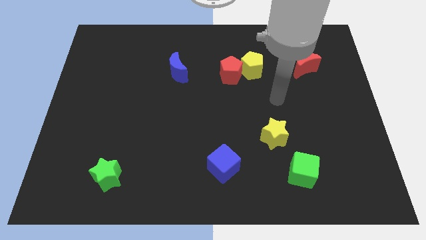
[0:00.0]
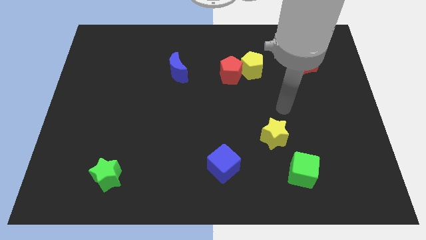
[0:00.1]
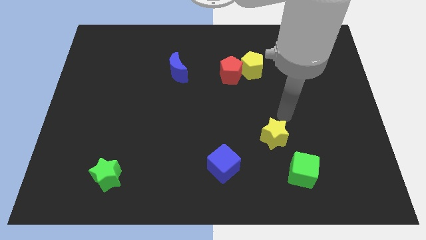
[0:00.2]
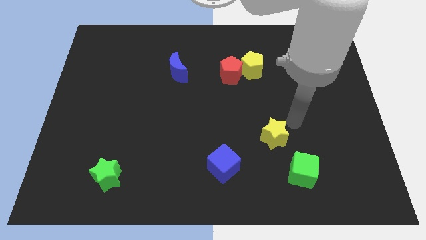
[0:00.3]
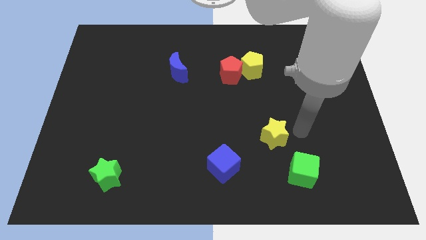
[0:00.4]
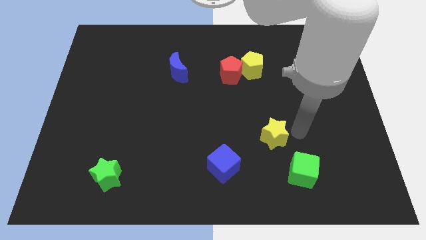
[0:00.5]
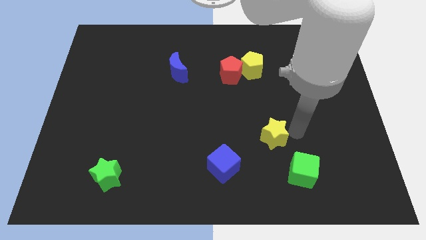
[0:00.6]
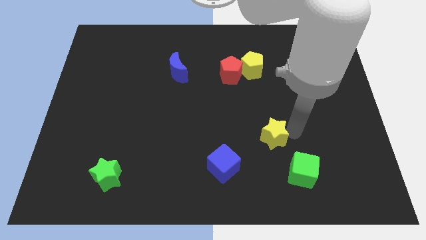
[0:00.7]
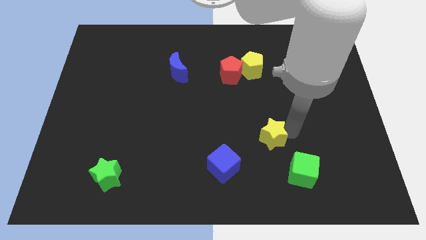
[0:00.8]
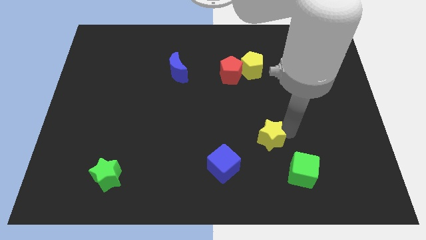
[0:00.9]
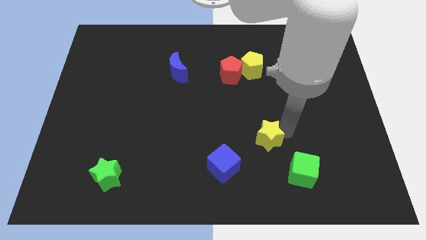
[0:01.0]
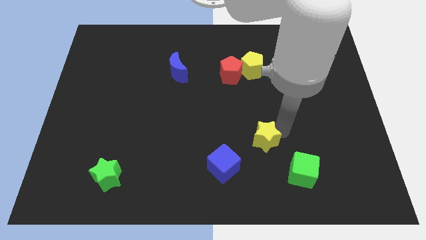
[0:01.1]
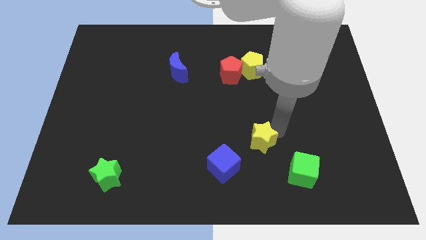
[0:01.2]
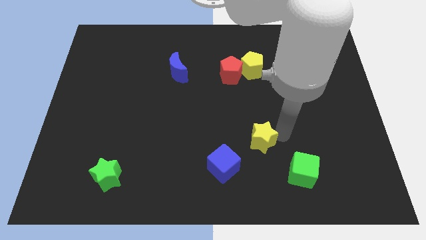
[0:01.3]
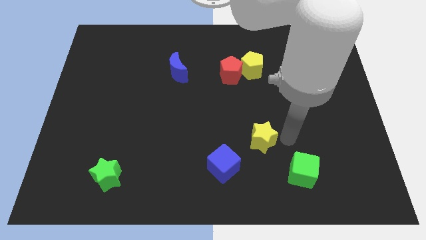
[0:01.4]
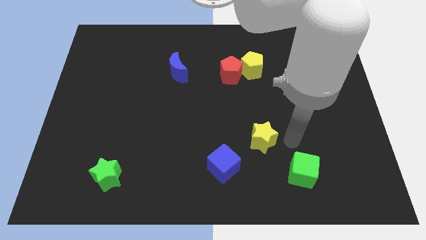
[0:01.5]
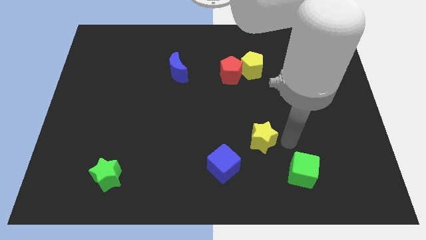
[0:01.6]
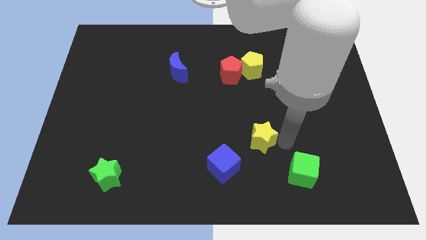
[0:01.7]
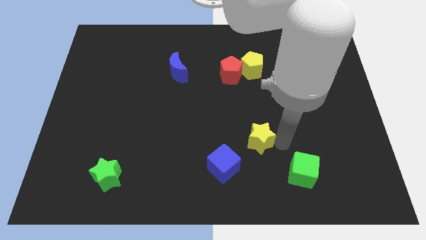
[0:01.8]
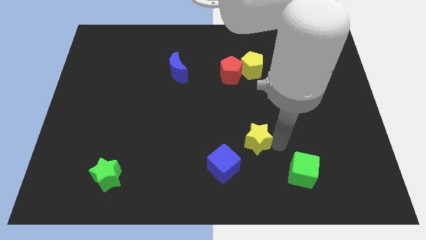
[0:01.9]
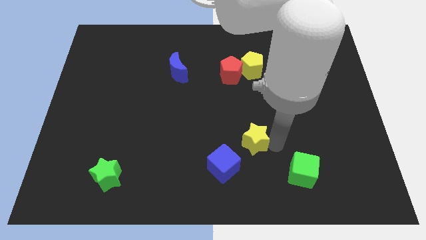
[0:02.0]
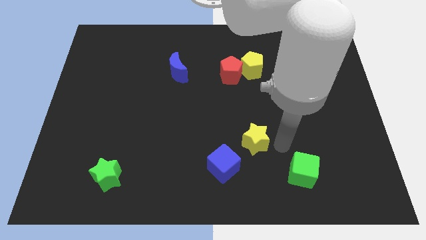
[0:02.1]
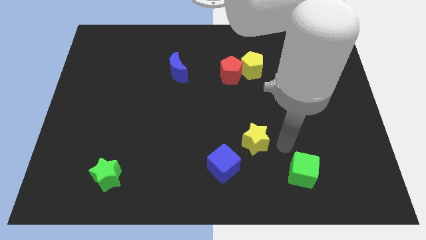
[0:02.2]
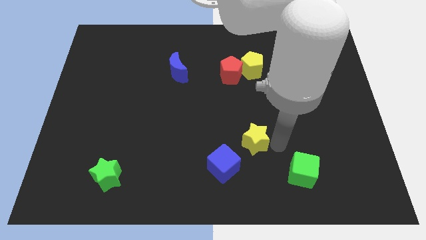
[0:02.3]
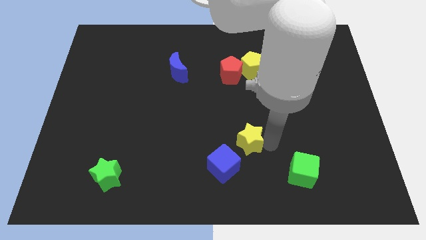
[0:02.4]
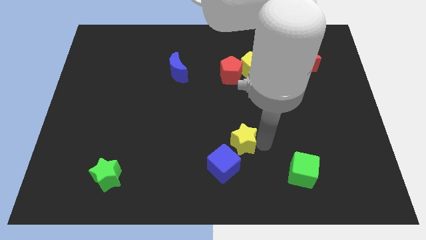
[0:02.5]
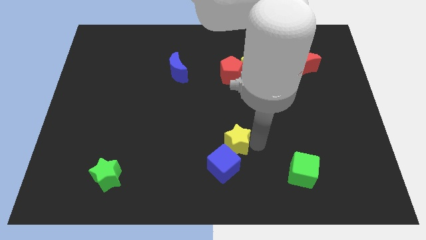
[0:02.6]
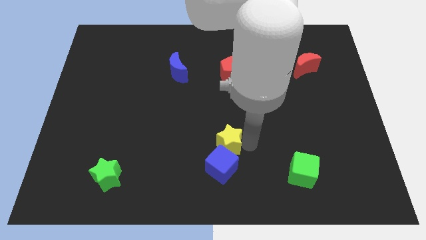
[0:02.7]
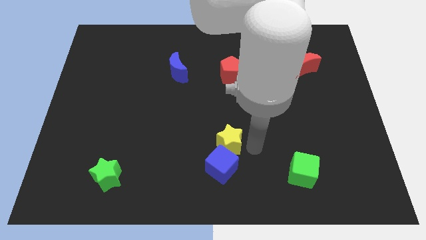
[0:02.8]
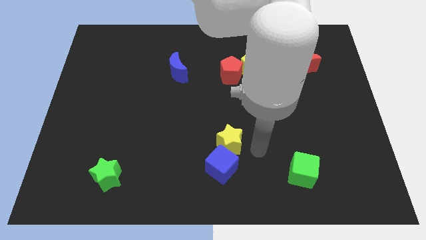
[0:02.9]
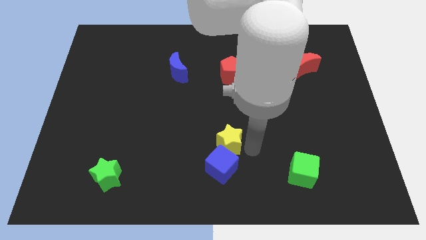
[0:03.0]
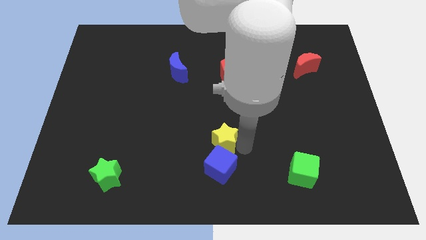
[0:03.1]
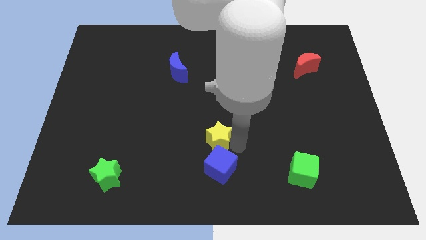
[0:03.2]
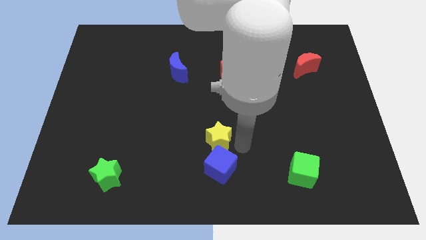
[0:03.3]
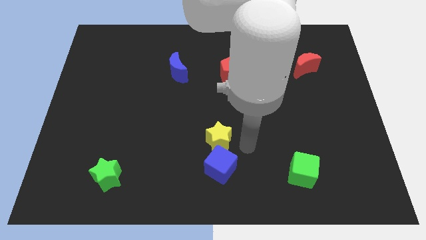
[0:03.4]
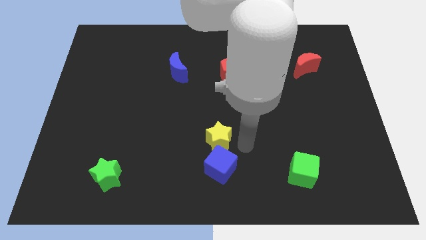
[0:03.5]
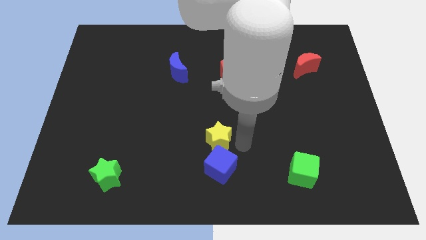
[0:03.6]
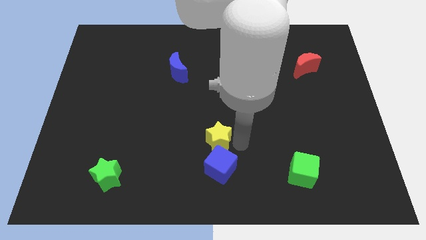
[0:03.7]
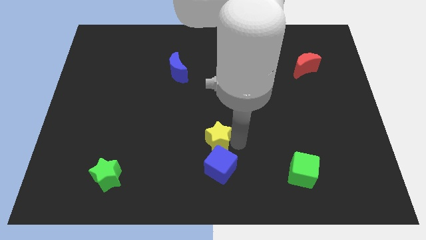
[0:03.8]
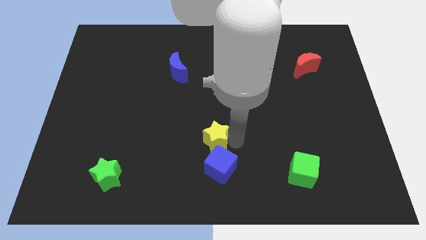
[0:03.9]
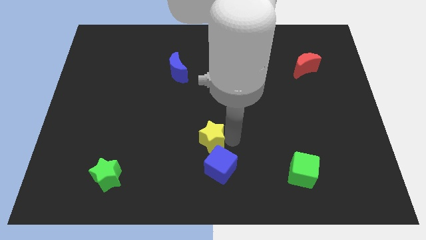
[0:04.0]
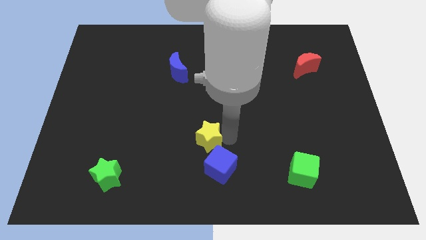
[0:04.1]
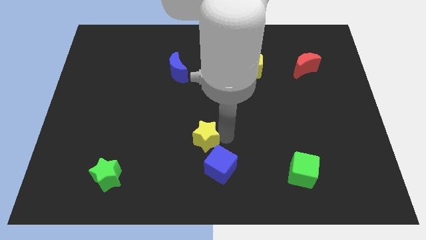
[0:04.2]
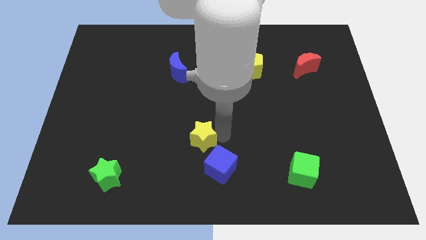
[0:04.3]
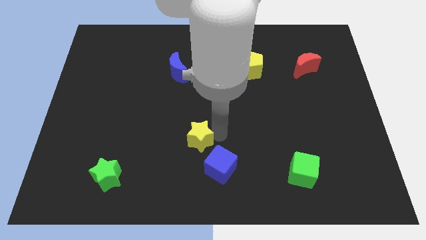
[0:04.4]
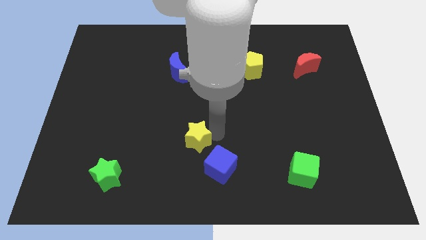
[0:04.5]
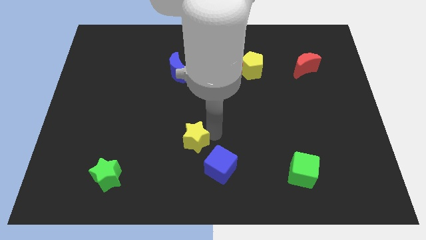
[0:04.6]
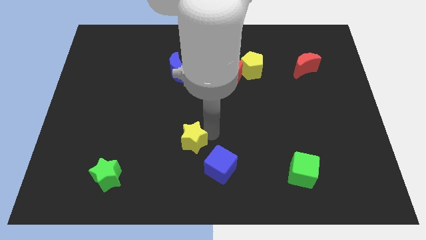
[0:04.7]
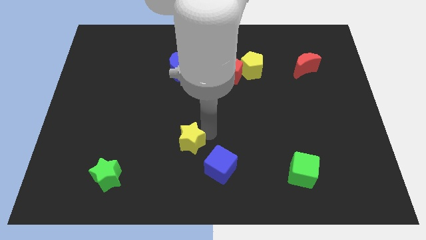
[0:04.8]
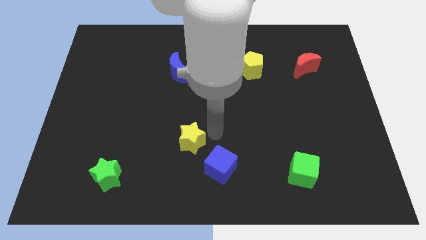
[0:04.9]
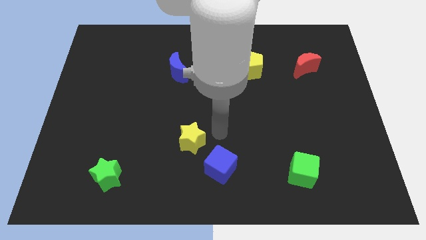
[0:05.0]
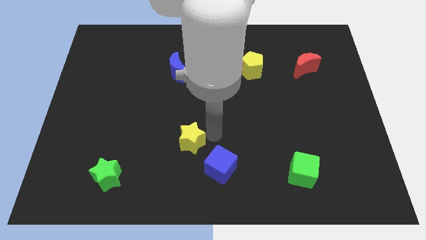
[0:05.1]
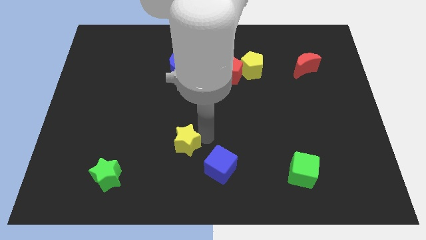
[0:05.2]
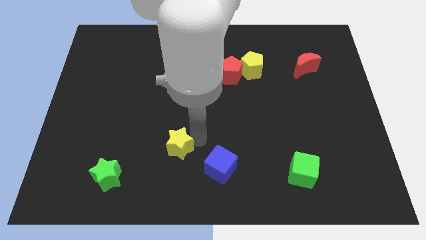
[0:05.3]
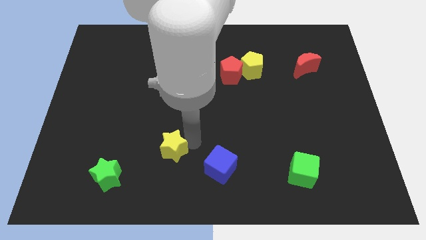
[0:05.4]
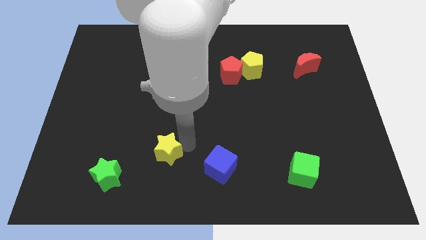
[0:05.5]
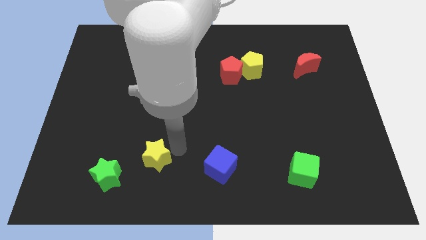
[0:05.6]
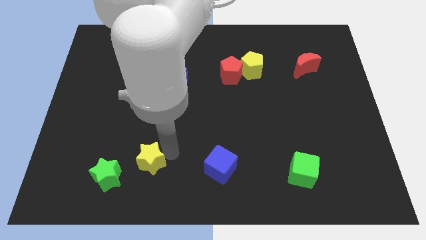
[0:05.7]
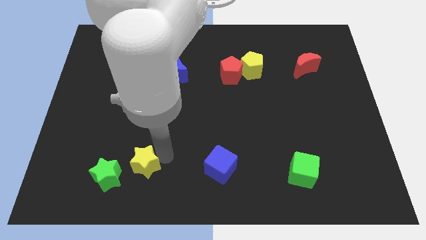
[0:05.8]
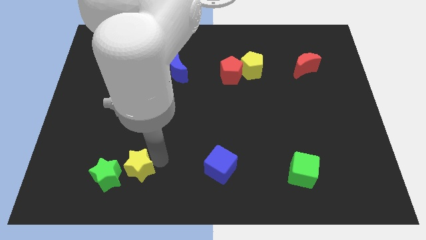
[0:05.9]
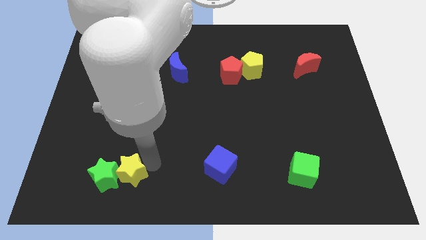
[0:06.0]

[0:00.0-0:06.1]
slide the yellow star to the green star

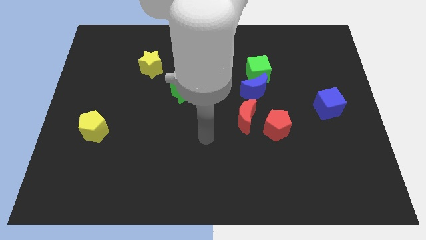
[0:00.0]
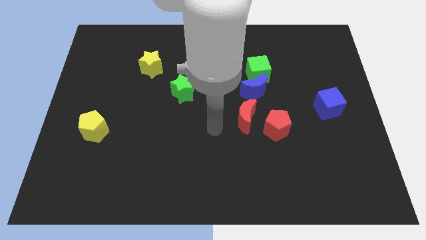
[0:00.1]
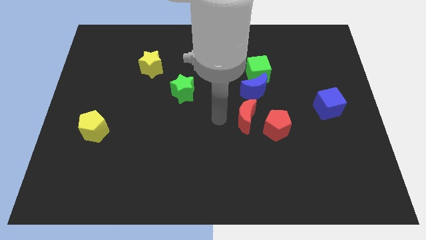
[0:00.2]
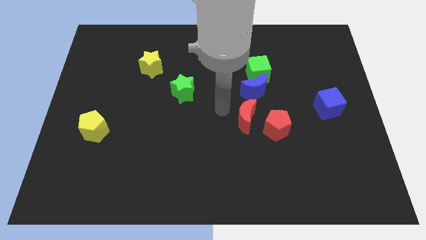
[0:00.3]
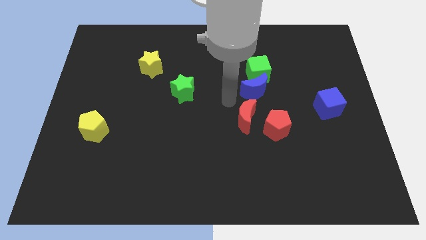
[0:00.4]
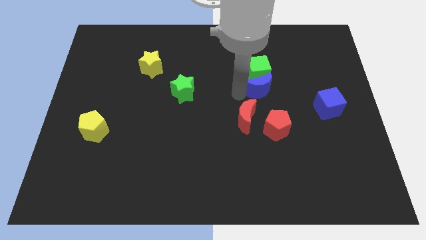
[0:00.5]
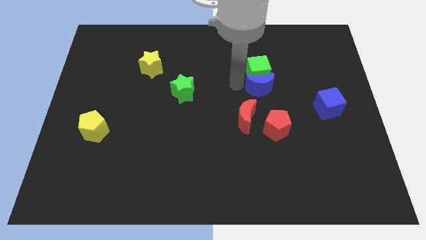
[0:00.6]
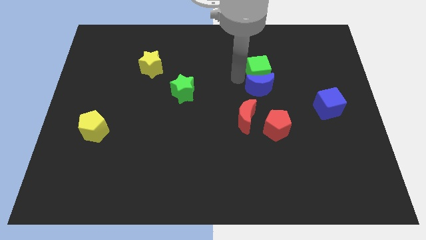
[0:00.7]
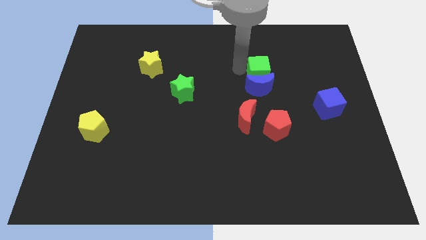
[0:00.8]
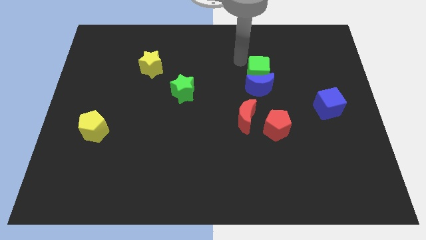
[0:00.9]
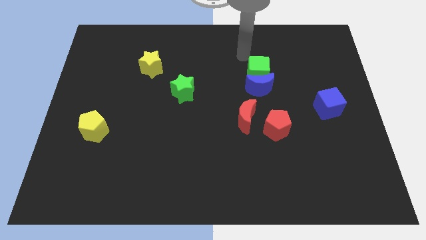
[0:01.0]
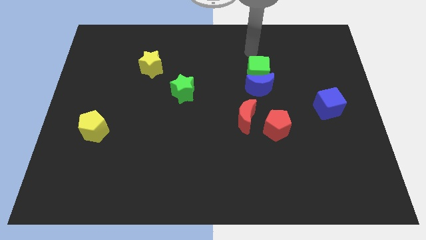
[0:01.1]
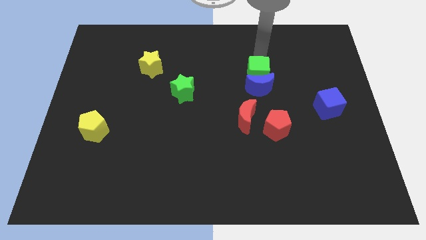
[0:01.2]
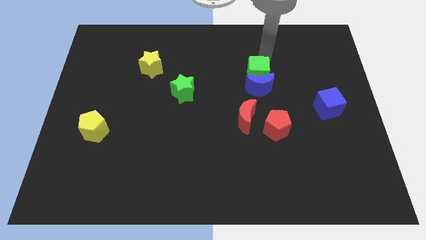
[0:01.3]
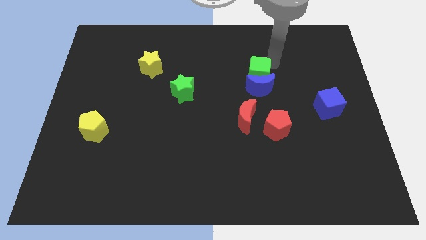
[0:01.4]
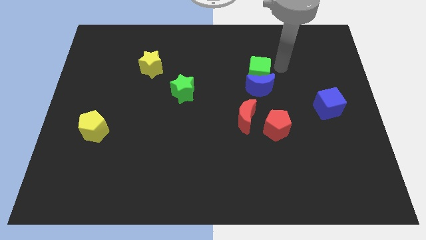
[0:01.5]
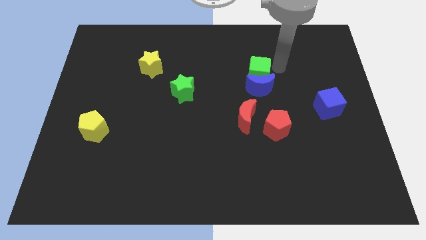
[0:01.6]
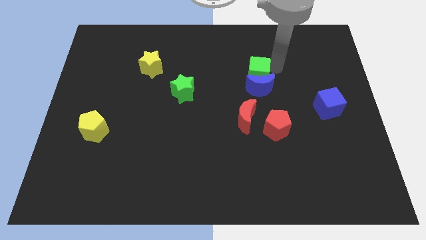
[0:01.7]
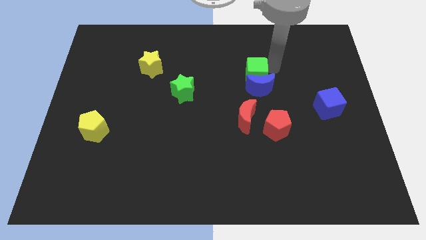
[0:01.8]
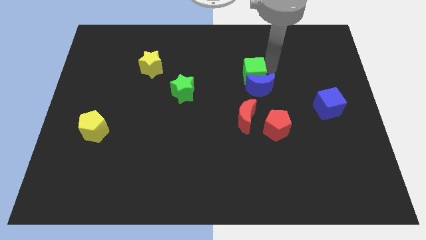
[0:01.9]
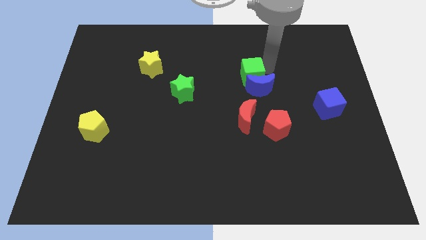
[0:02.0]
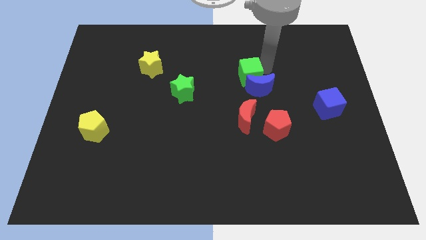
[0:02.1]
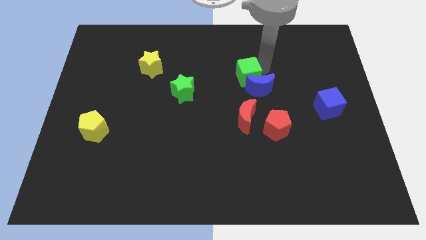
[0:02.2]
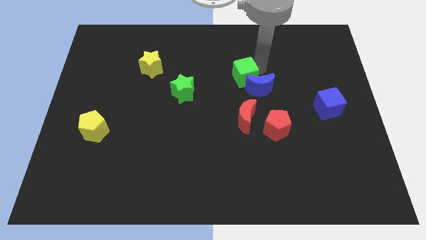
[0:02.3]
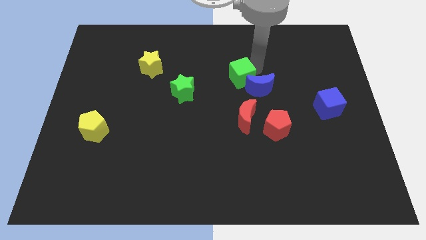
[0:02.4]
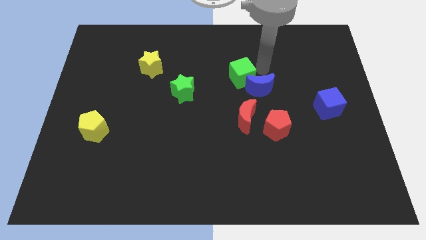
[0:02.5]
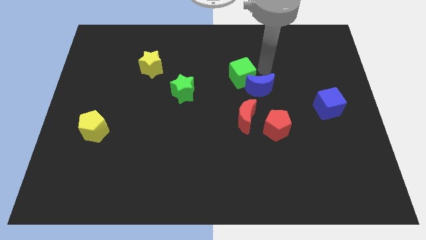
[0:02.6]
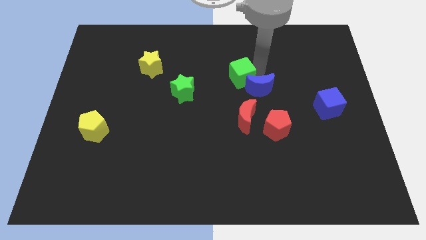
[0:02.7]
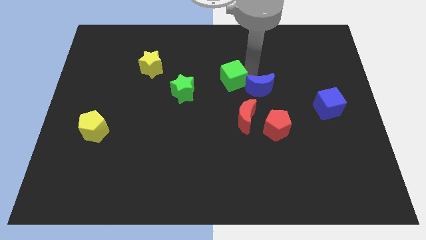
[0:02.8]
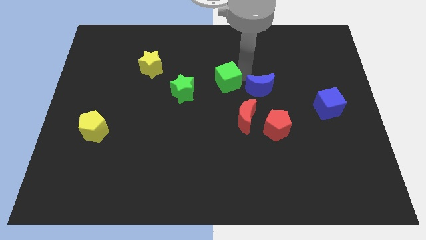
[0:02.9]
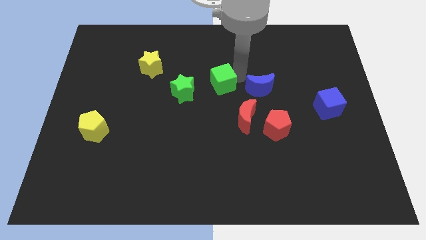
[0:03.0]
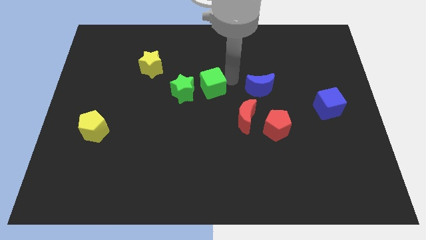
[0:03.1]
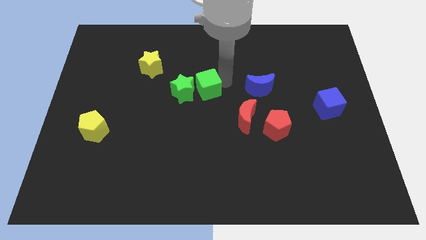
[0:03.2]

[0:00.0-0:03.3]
push the green cube towards the green star
